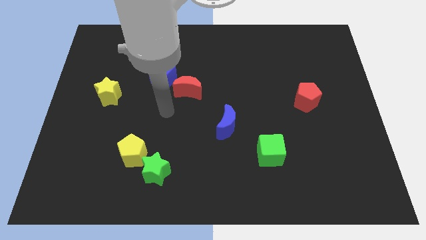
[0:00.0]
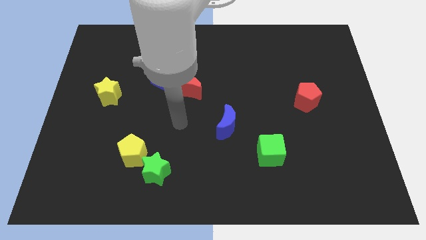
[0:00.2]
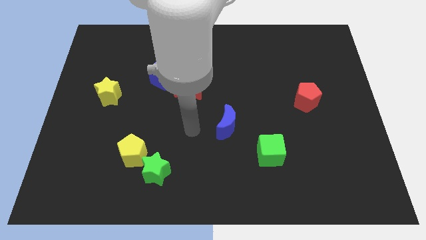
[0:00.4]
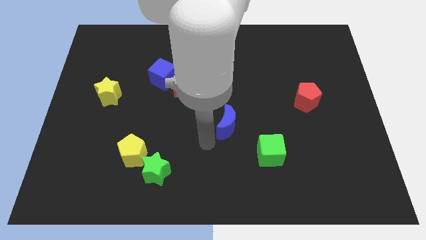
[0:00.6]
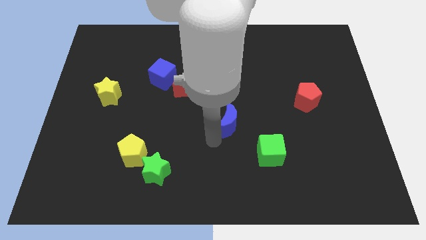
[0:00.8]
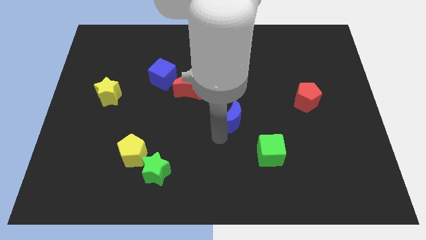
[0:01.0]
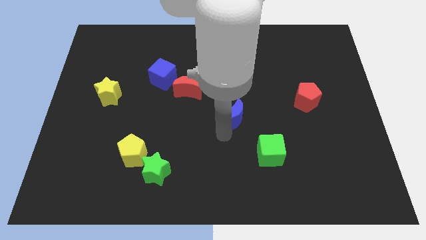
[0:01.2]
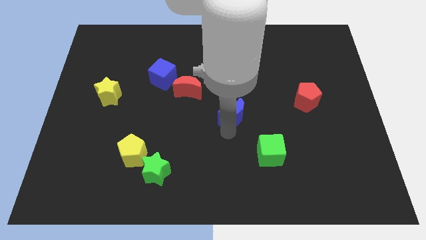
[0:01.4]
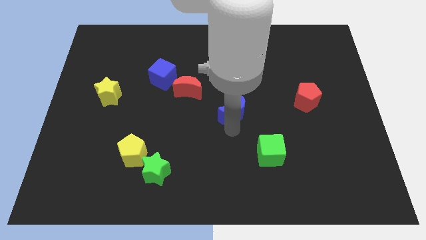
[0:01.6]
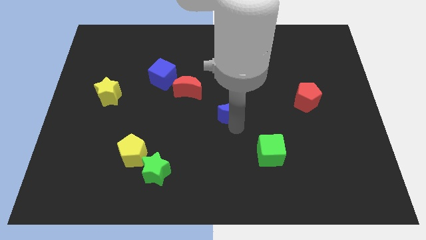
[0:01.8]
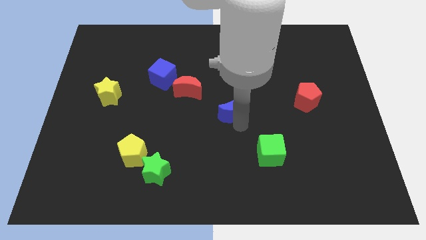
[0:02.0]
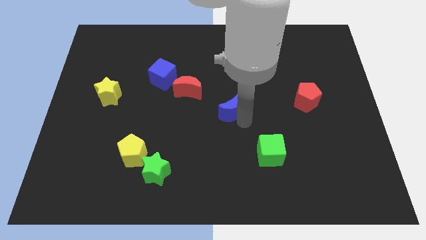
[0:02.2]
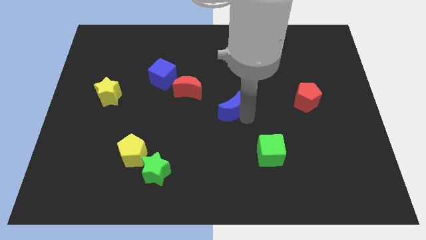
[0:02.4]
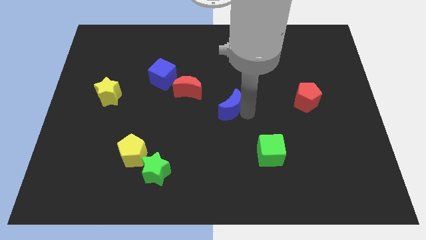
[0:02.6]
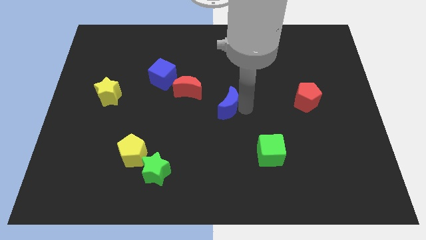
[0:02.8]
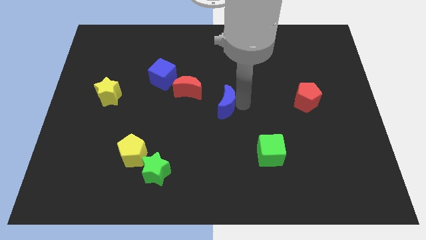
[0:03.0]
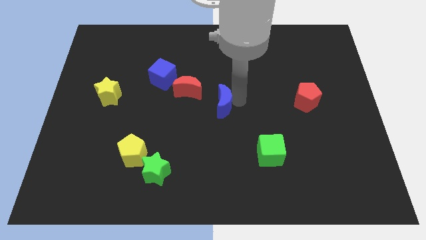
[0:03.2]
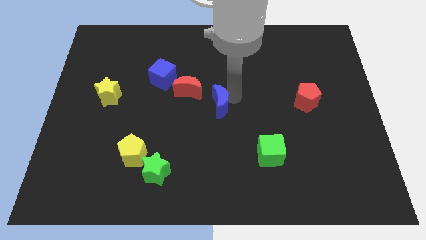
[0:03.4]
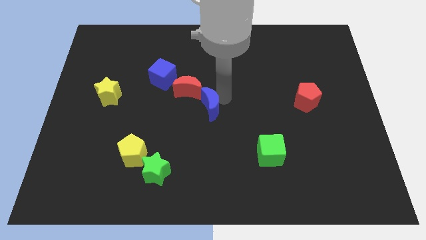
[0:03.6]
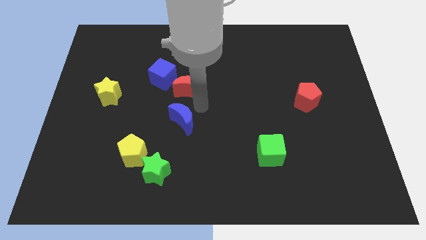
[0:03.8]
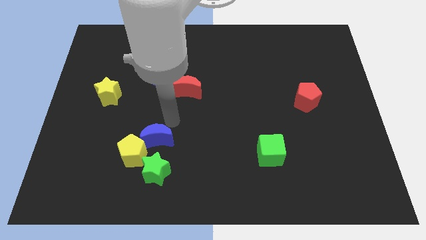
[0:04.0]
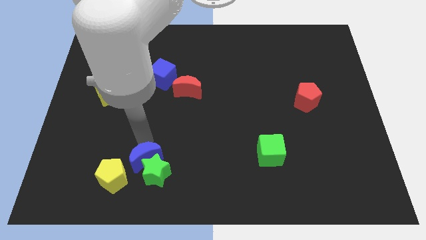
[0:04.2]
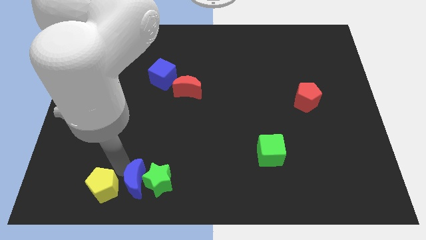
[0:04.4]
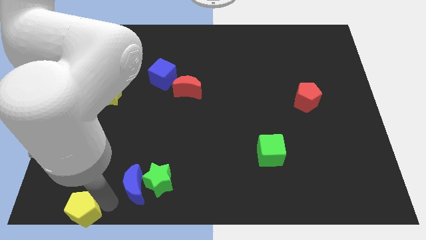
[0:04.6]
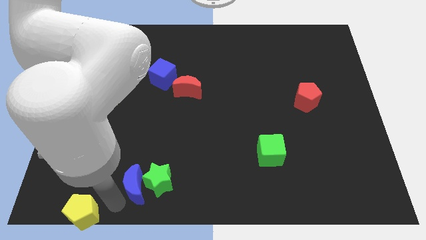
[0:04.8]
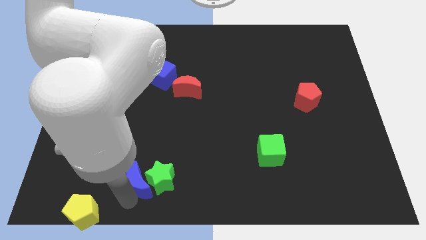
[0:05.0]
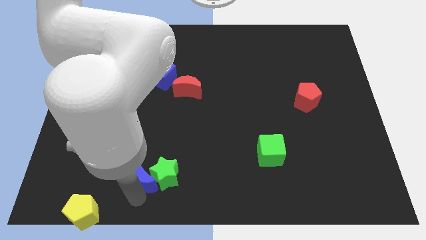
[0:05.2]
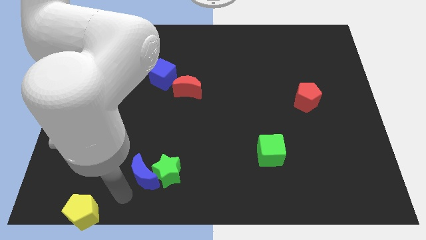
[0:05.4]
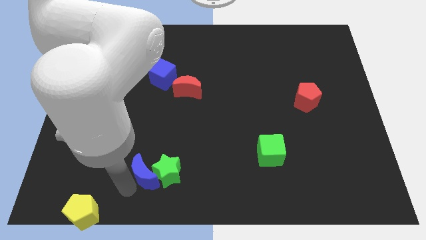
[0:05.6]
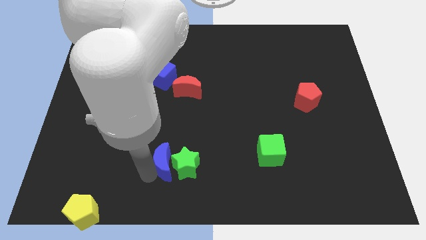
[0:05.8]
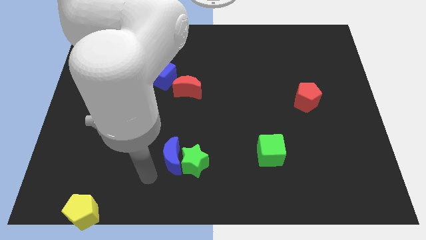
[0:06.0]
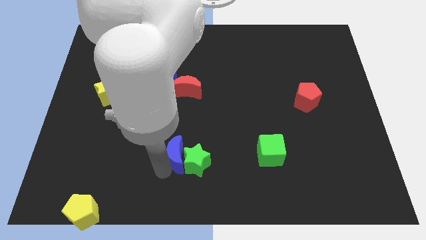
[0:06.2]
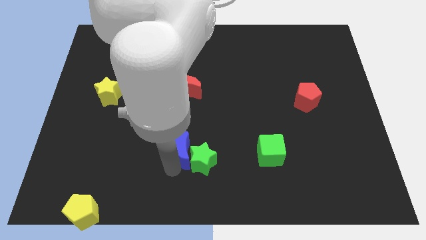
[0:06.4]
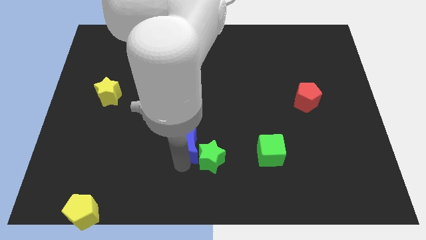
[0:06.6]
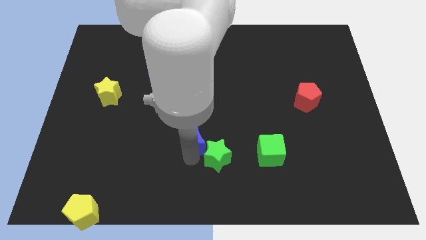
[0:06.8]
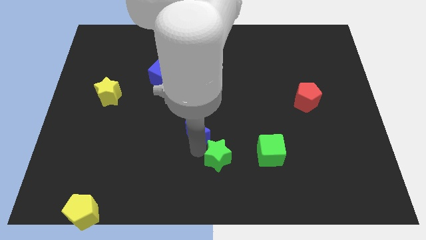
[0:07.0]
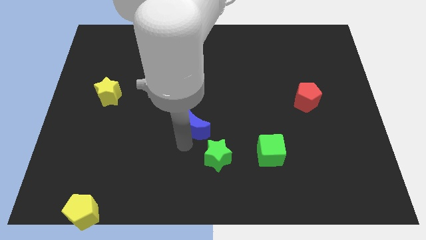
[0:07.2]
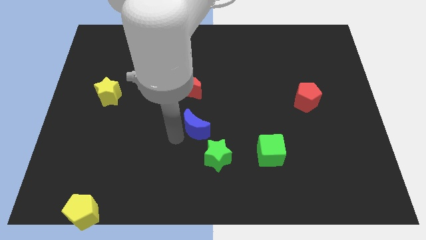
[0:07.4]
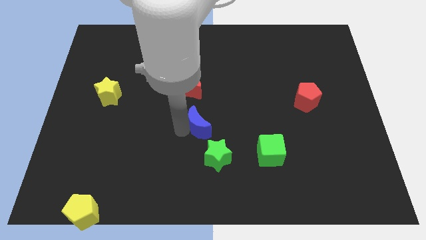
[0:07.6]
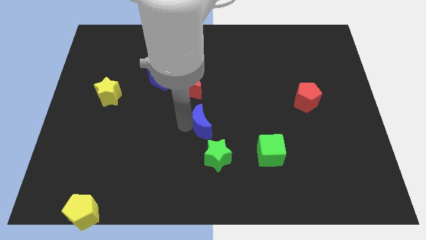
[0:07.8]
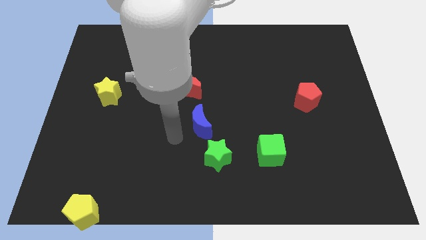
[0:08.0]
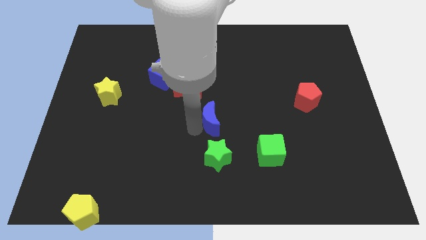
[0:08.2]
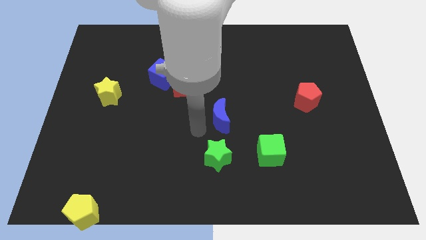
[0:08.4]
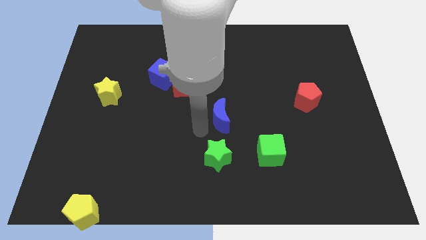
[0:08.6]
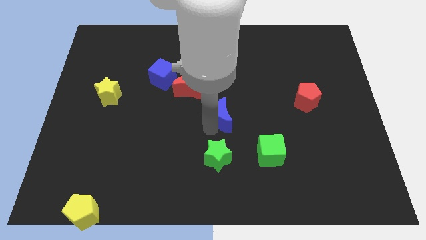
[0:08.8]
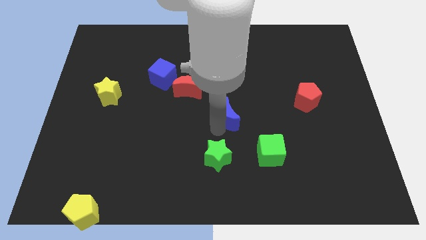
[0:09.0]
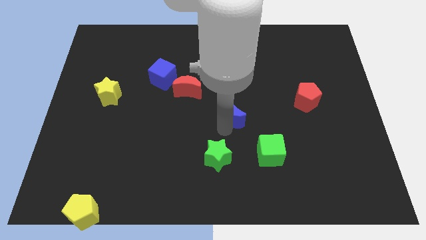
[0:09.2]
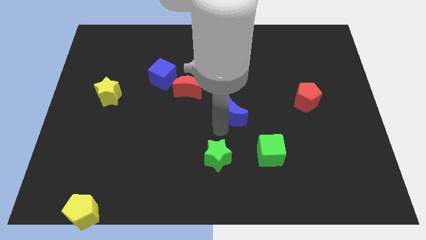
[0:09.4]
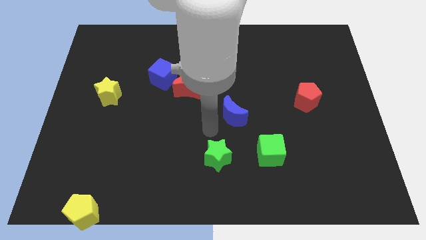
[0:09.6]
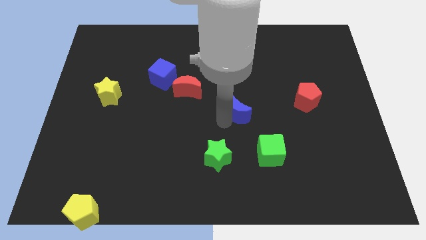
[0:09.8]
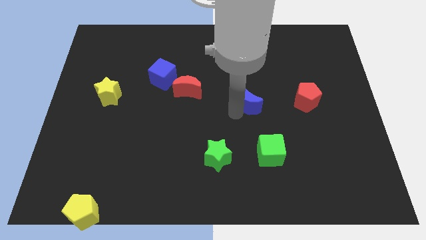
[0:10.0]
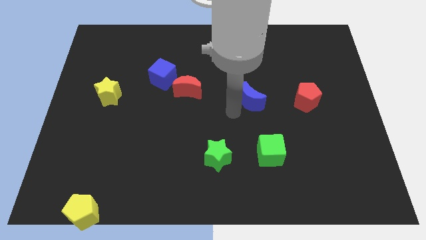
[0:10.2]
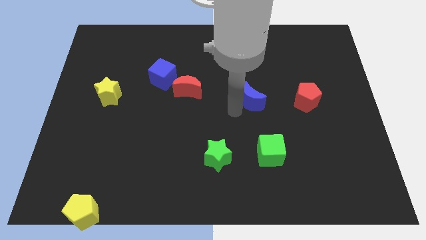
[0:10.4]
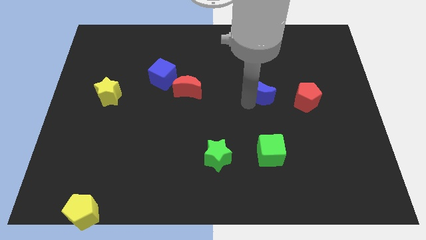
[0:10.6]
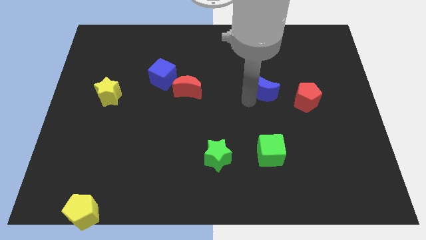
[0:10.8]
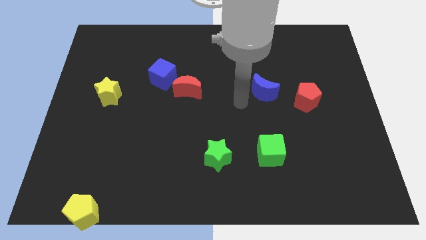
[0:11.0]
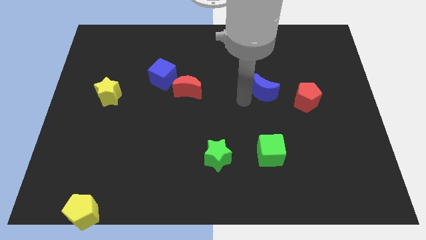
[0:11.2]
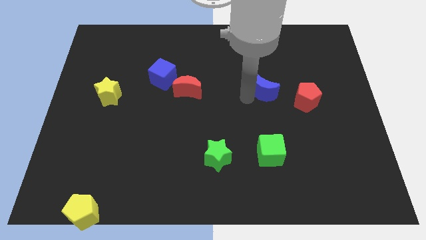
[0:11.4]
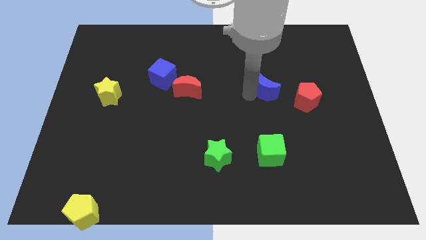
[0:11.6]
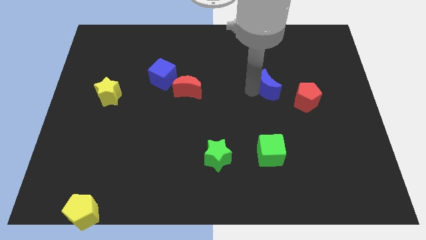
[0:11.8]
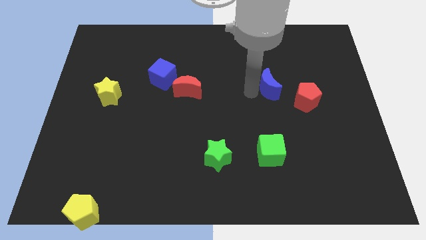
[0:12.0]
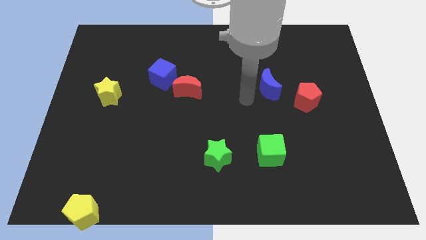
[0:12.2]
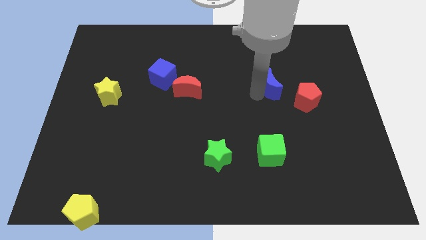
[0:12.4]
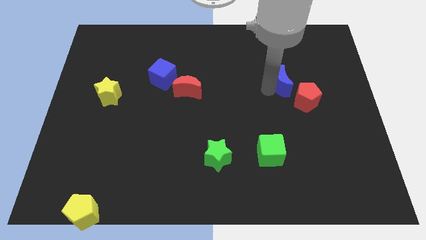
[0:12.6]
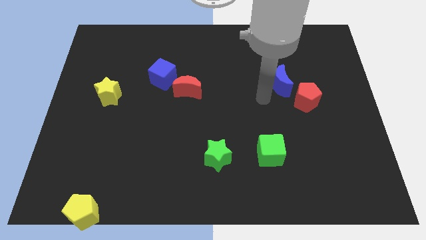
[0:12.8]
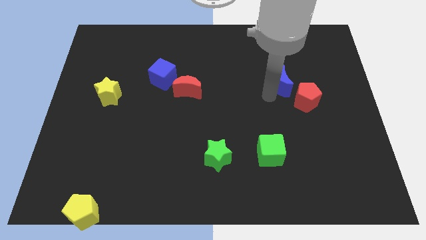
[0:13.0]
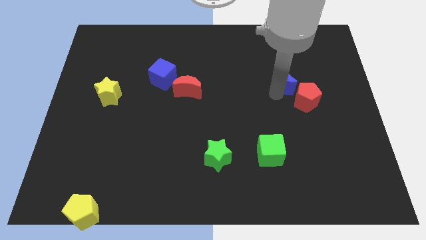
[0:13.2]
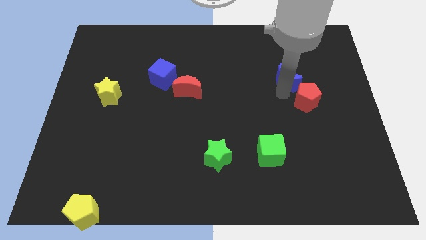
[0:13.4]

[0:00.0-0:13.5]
push the blue moon up and then right

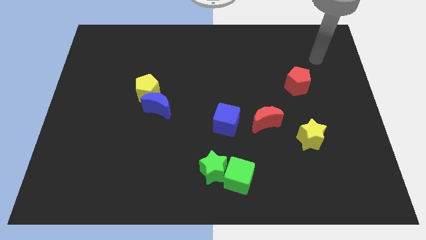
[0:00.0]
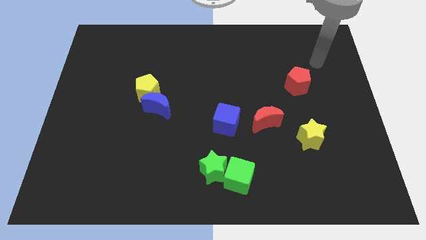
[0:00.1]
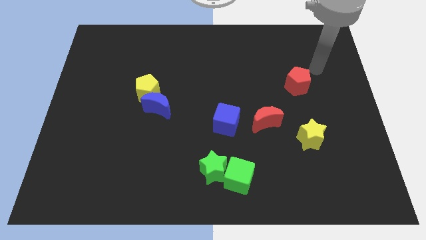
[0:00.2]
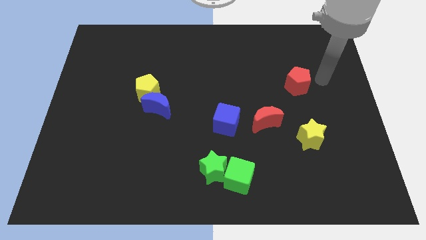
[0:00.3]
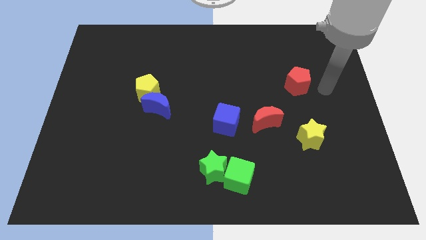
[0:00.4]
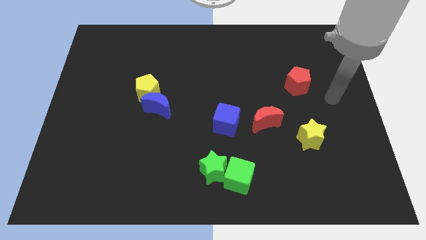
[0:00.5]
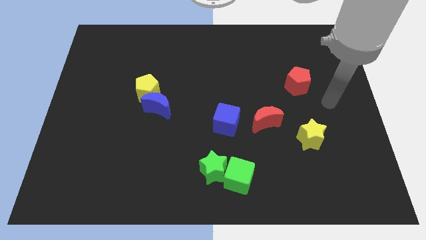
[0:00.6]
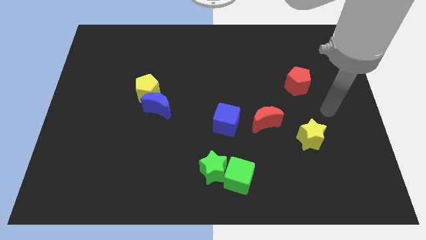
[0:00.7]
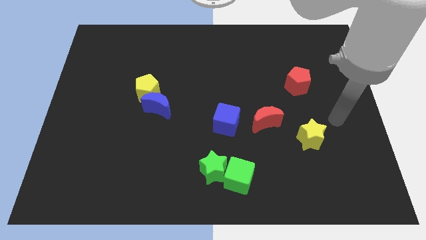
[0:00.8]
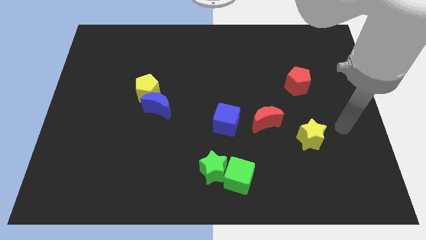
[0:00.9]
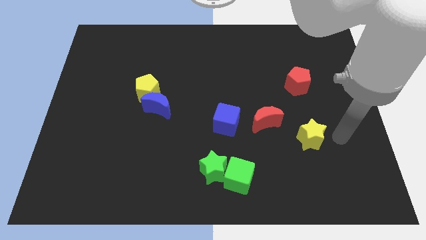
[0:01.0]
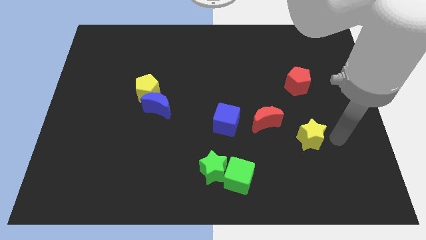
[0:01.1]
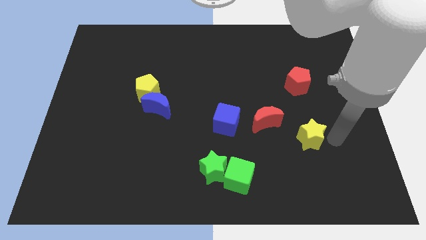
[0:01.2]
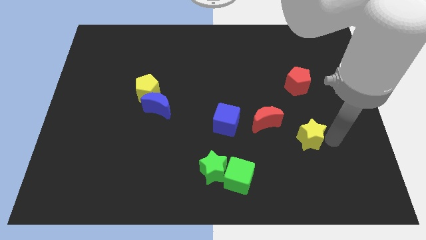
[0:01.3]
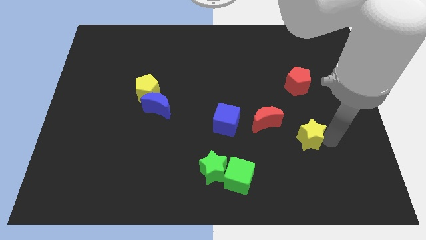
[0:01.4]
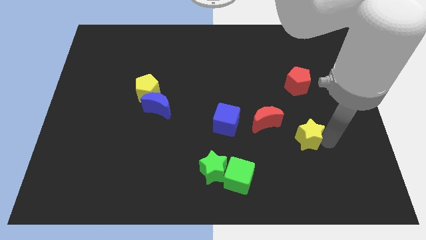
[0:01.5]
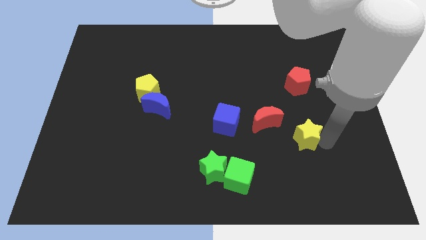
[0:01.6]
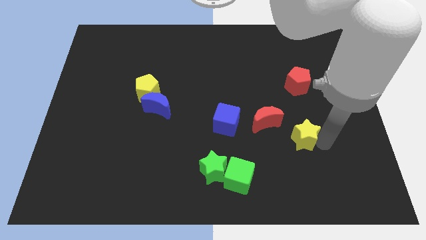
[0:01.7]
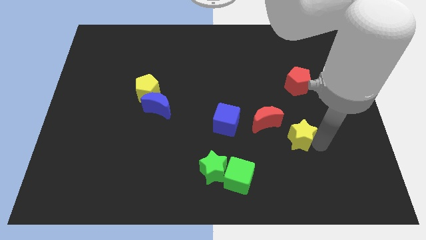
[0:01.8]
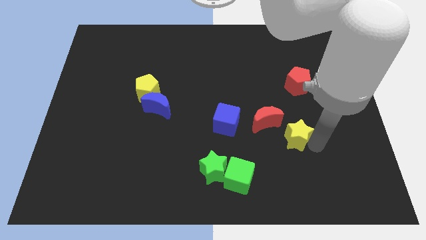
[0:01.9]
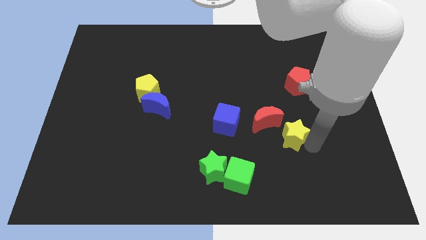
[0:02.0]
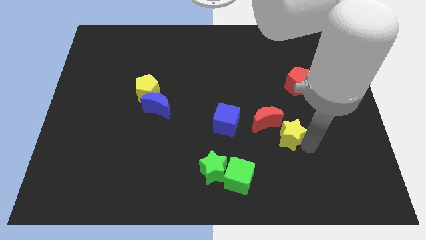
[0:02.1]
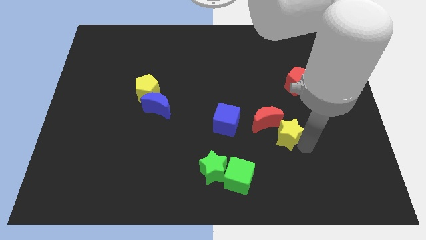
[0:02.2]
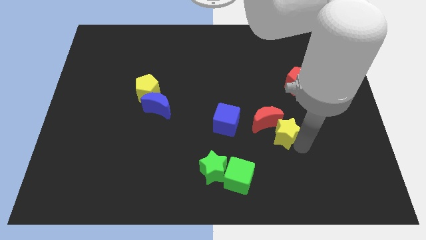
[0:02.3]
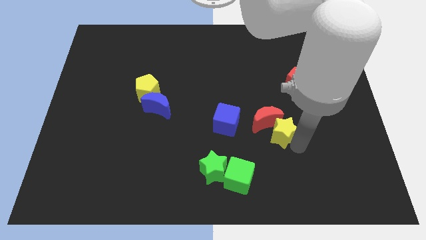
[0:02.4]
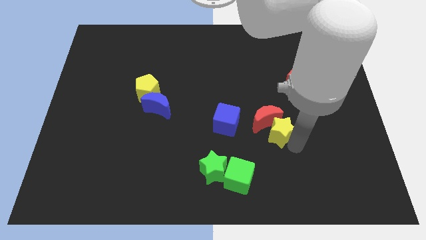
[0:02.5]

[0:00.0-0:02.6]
move the yellow star a little to the left
